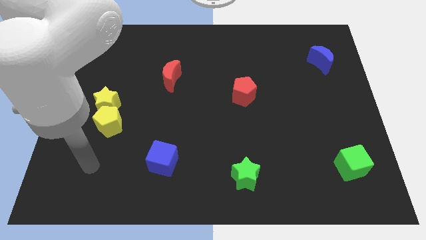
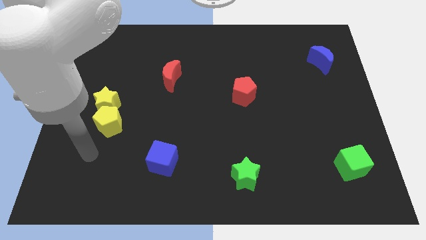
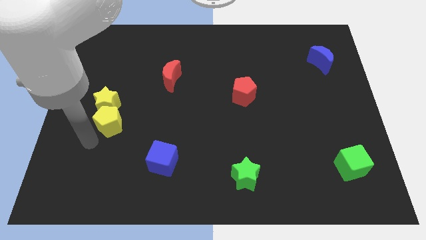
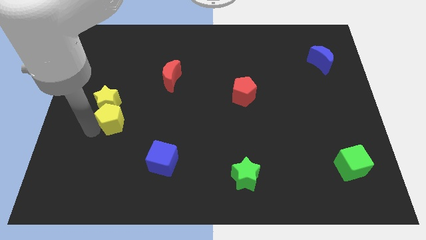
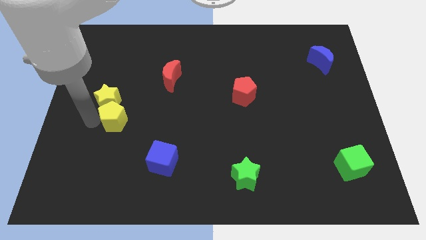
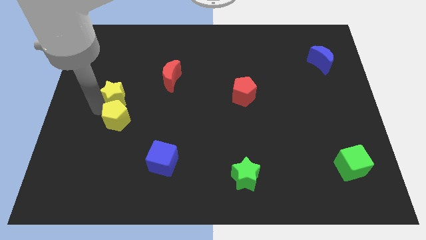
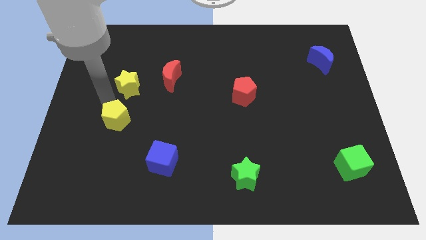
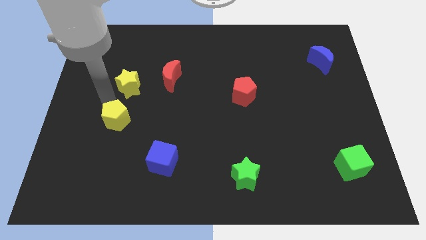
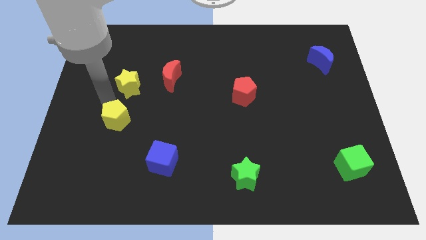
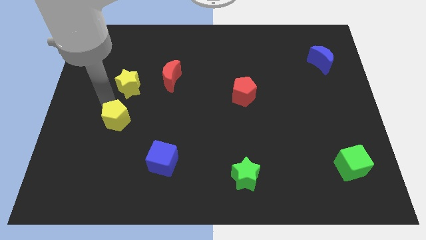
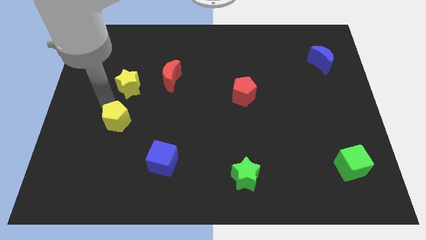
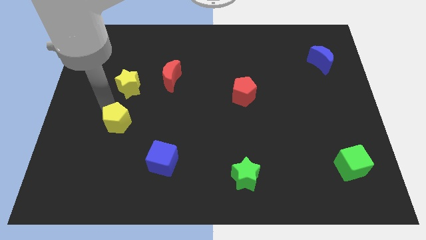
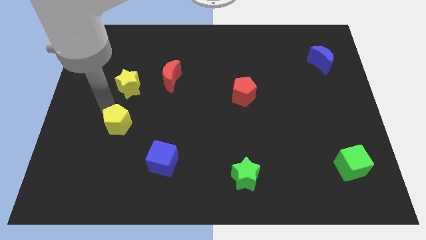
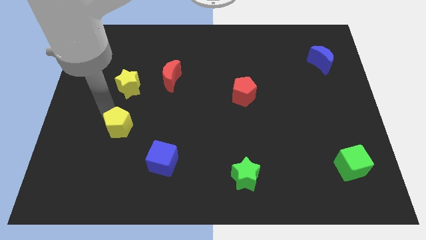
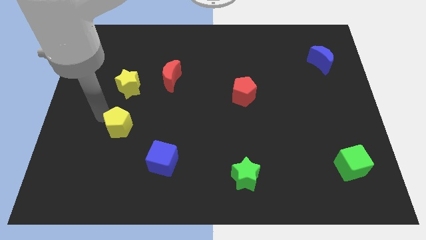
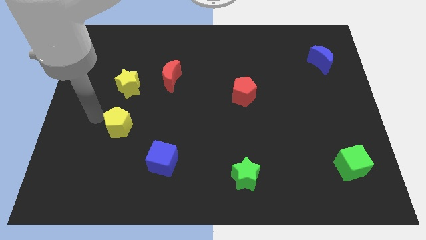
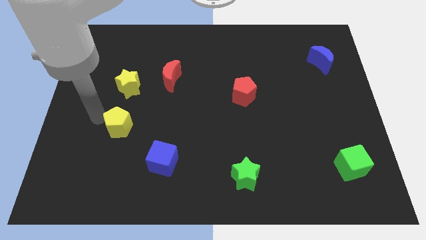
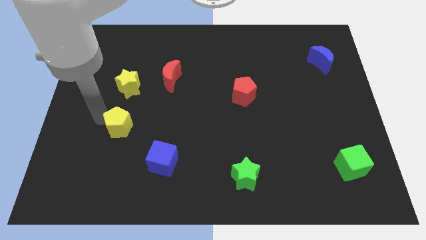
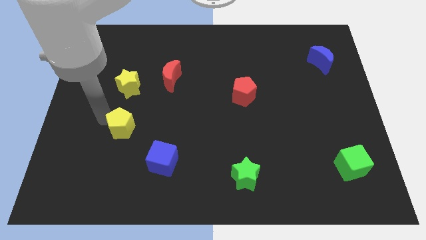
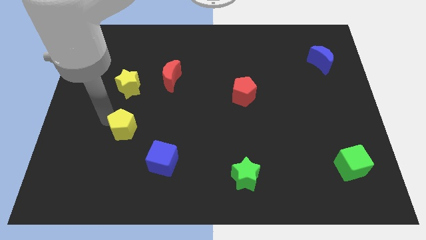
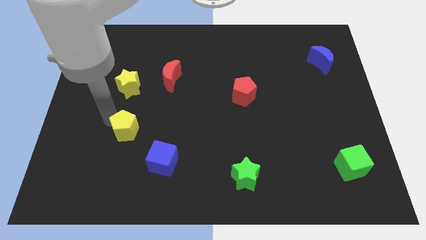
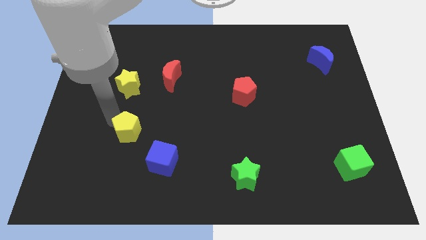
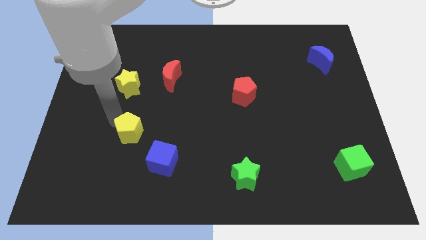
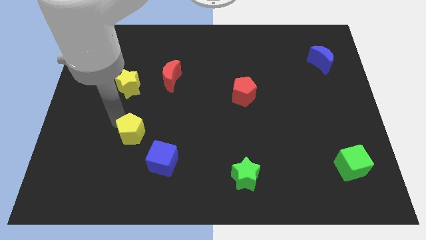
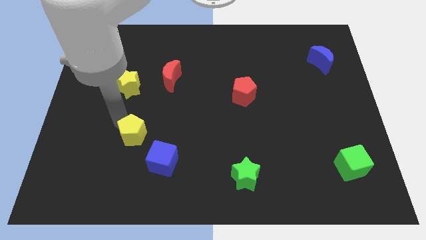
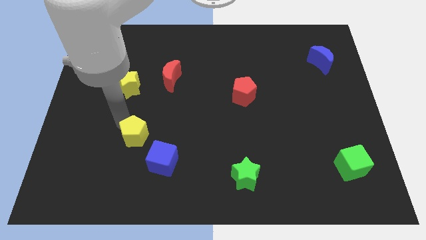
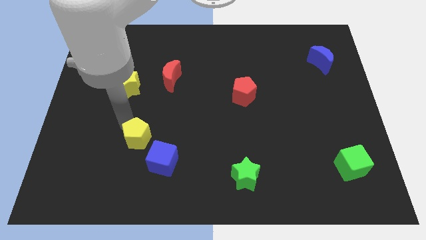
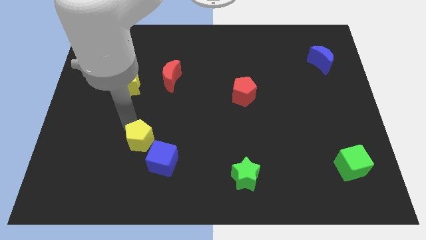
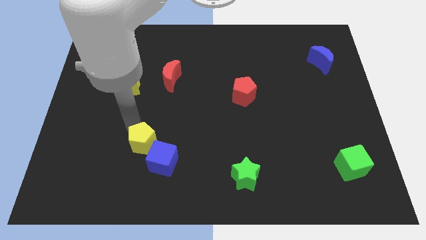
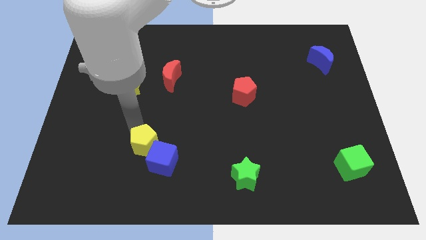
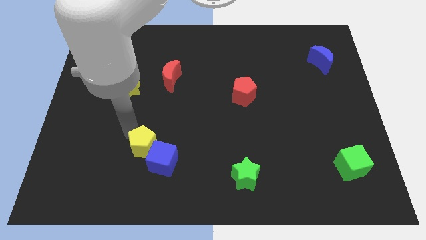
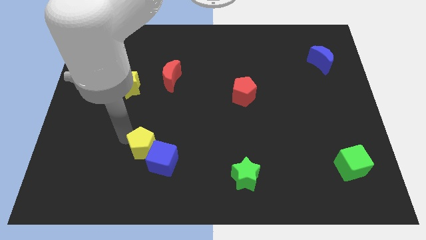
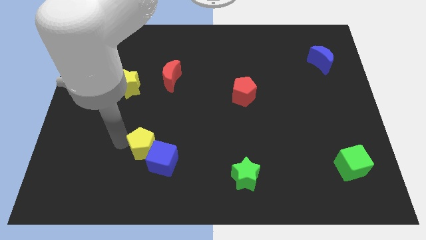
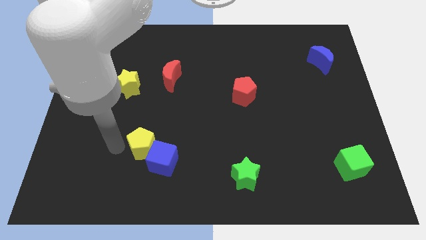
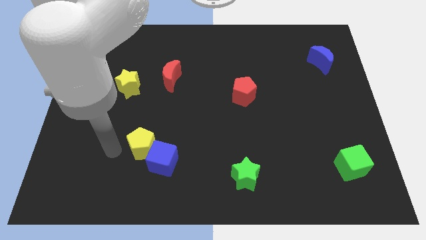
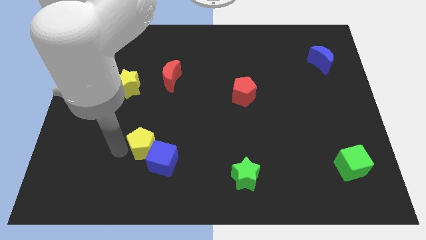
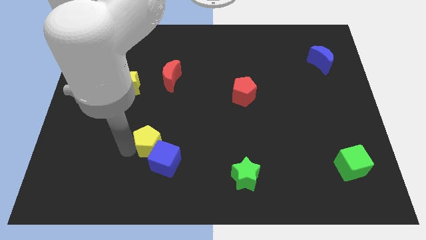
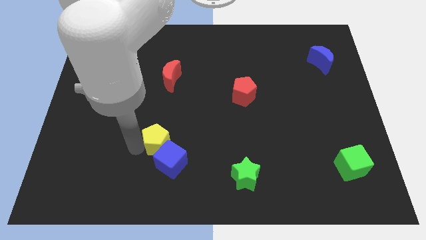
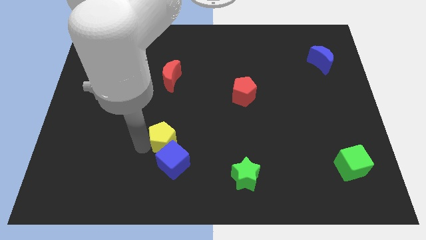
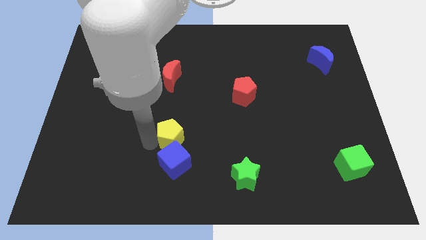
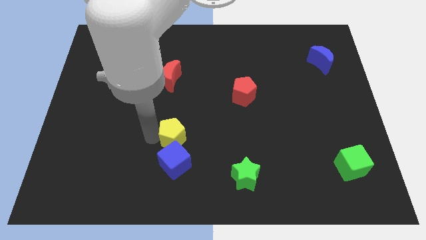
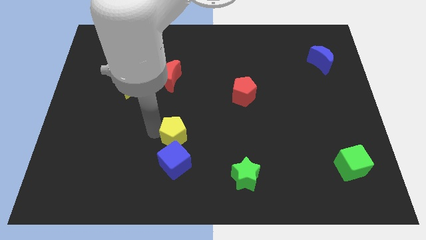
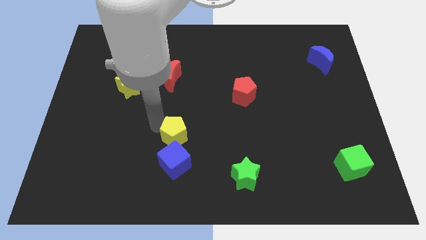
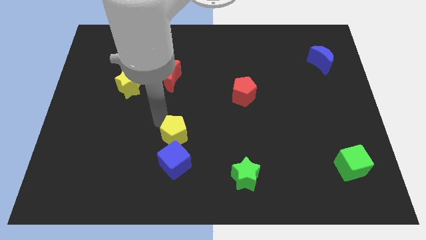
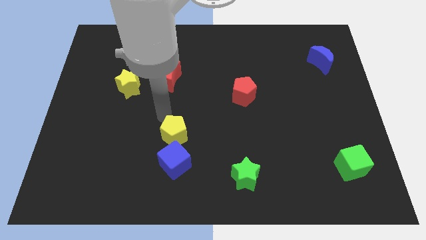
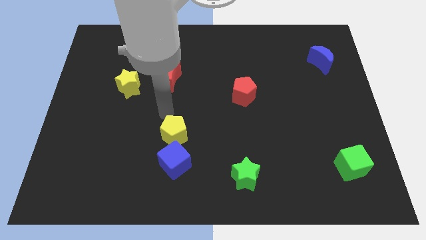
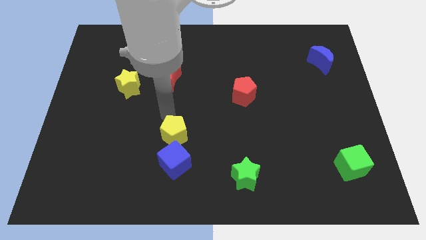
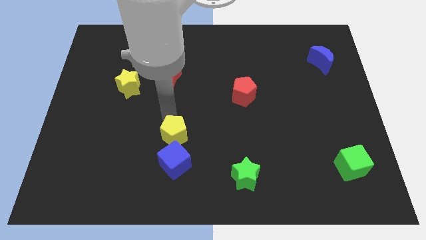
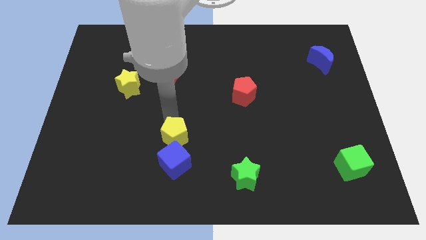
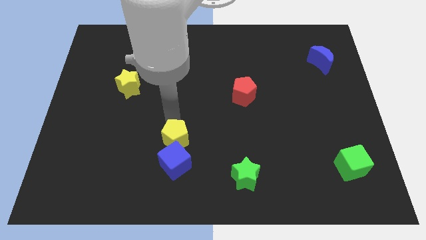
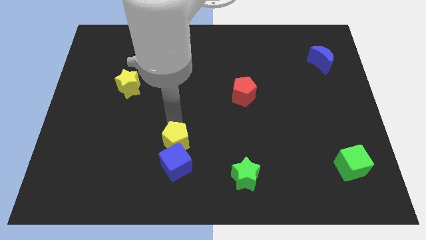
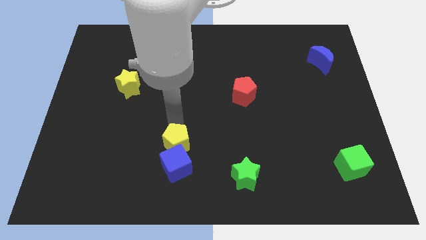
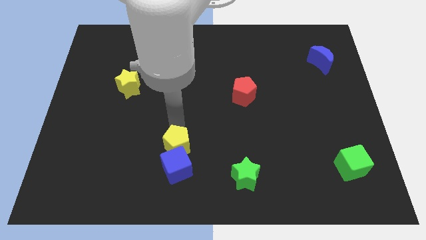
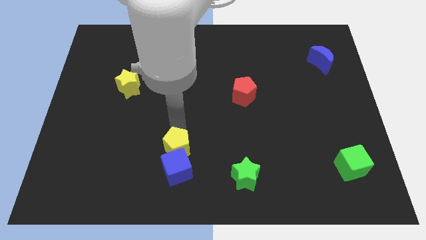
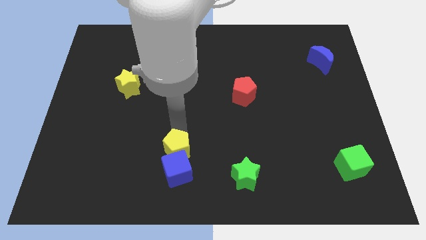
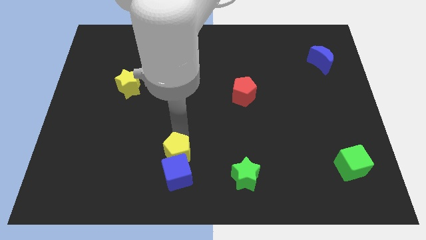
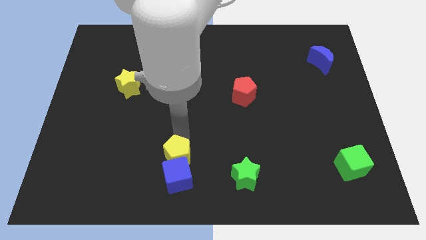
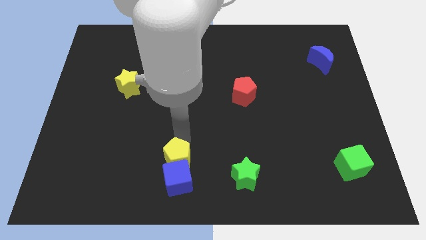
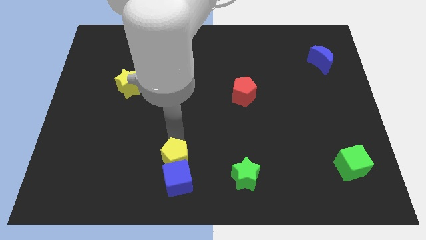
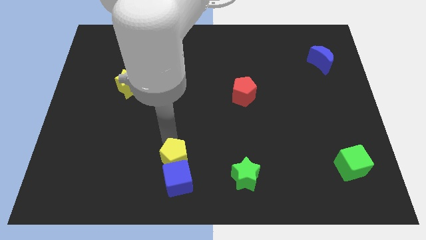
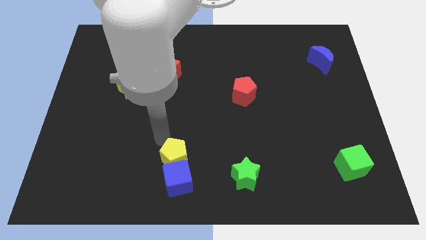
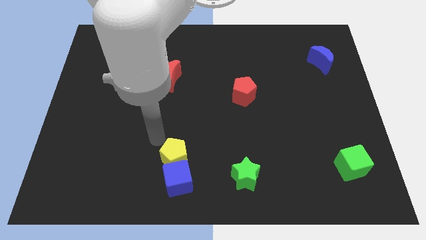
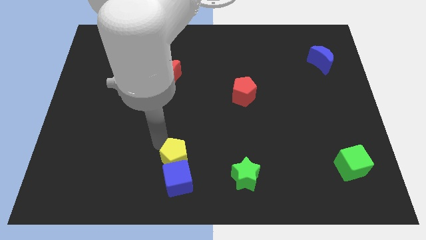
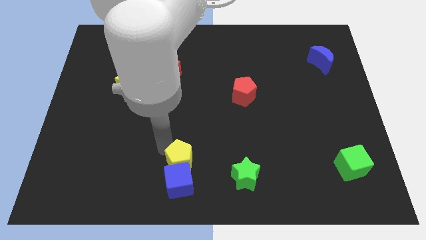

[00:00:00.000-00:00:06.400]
slide the yellow pentagon to the left side of the green star

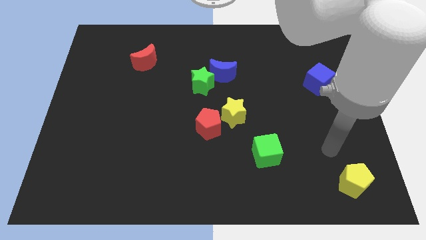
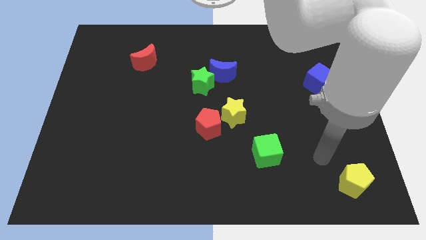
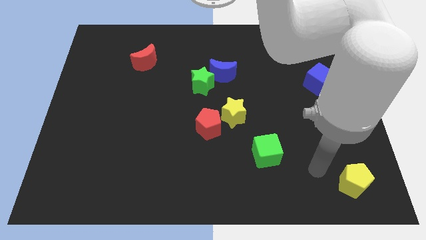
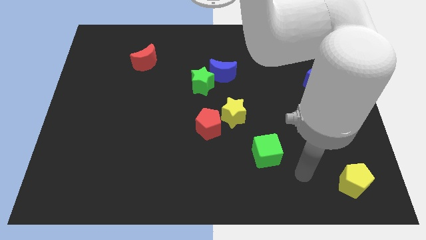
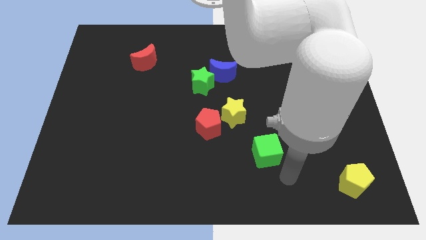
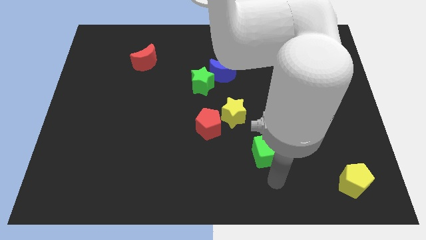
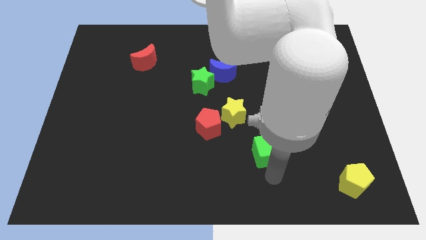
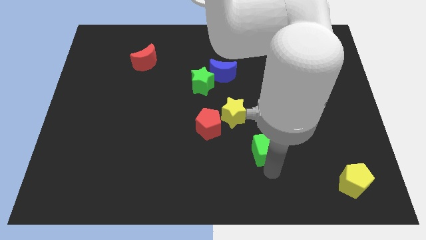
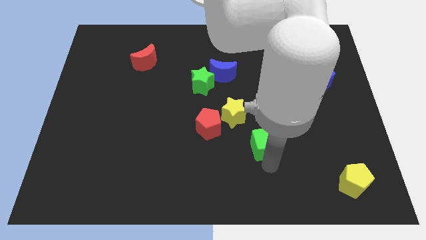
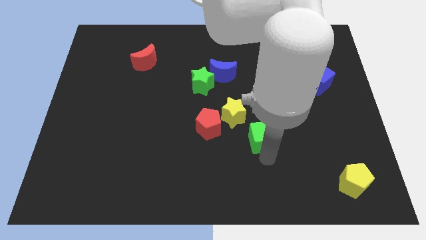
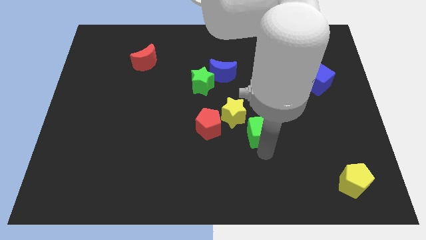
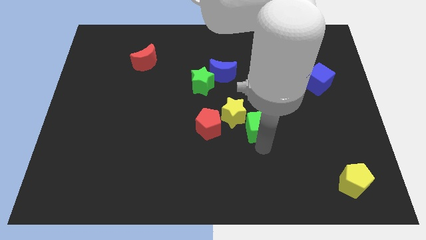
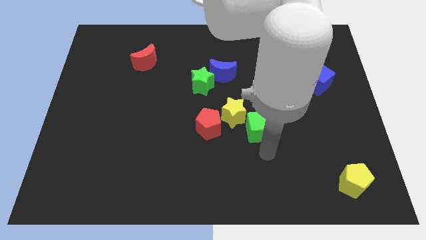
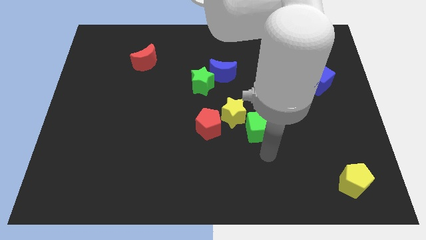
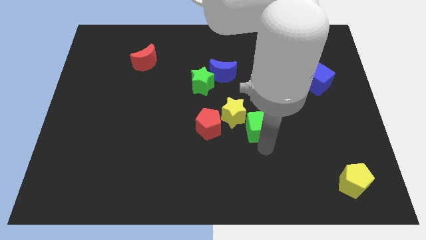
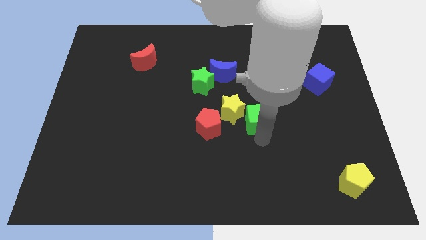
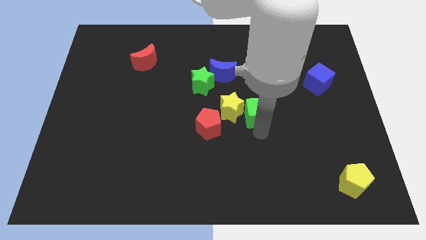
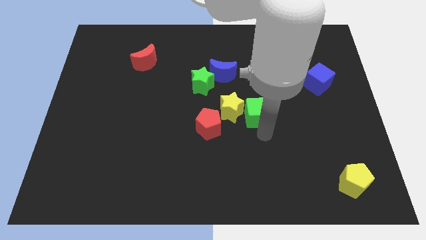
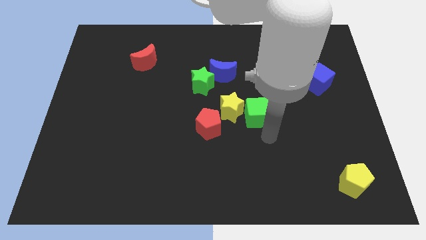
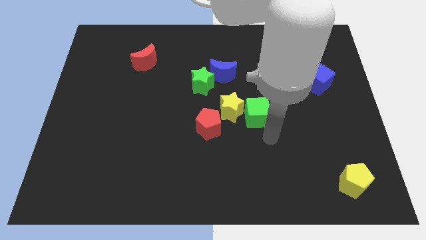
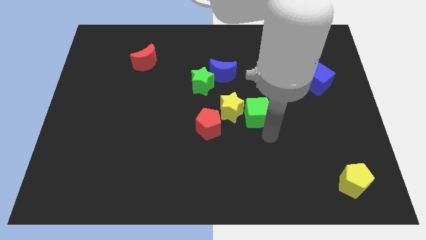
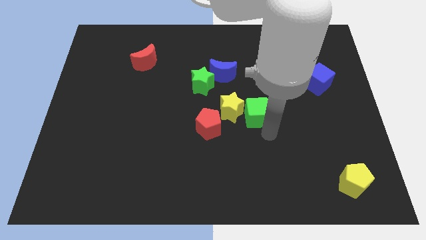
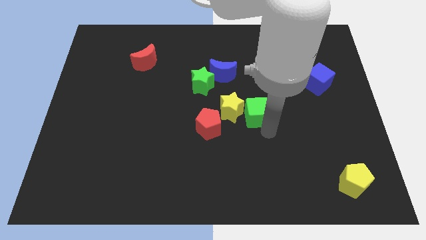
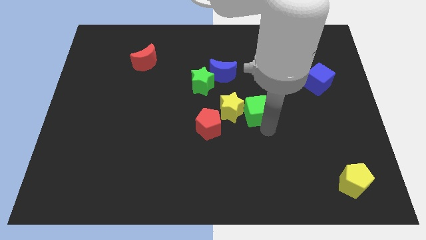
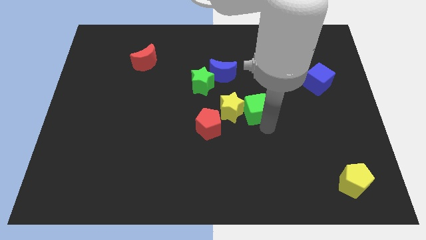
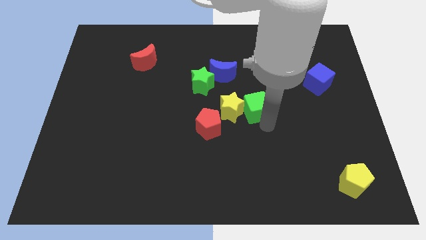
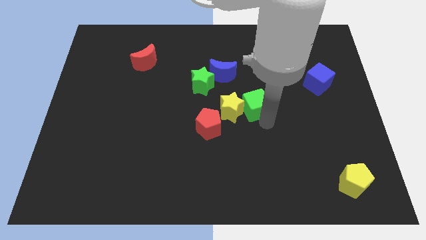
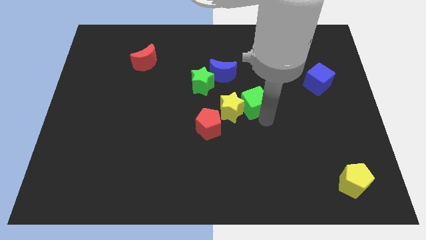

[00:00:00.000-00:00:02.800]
put the green cube to the bottom right side of the blue moon
